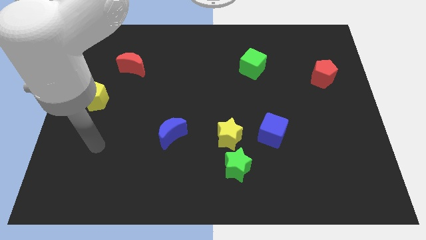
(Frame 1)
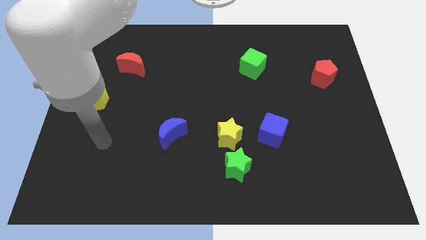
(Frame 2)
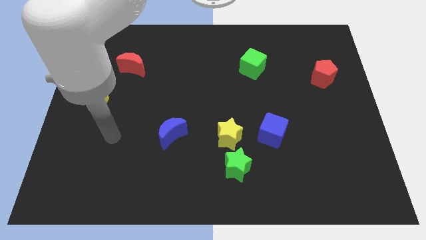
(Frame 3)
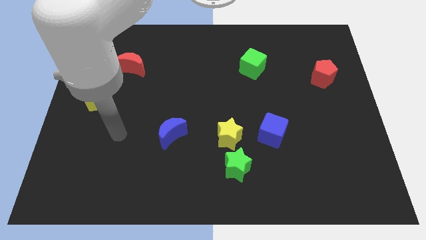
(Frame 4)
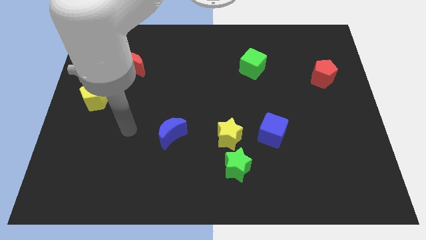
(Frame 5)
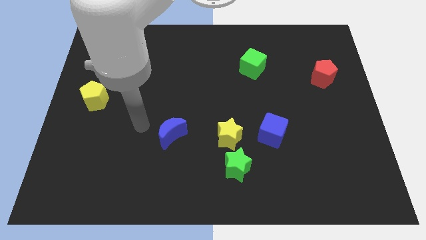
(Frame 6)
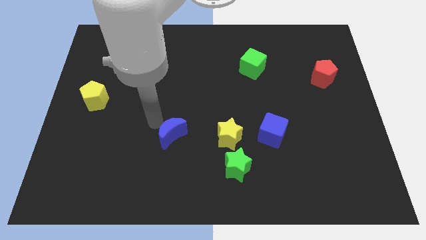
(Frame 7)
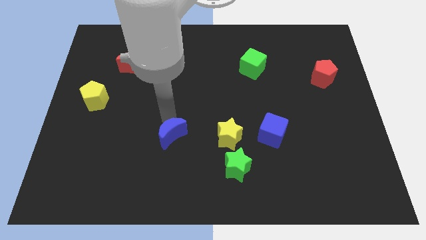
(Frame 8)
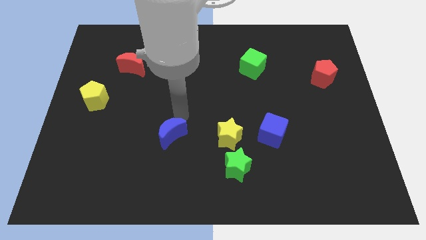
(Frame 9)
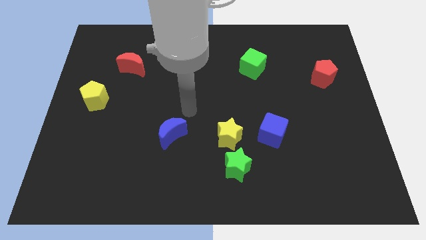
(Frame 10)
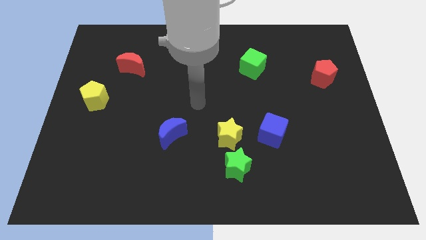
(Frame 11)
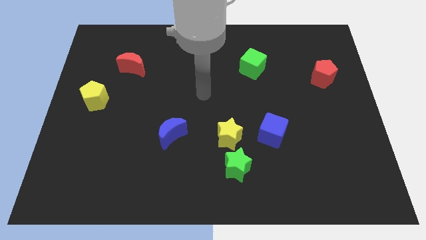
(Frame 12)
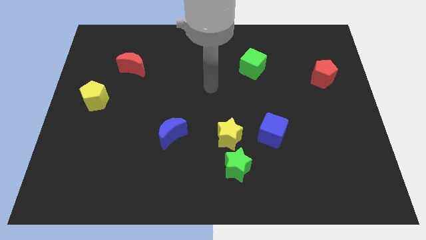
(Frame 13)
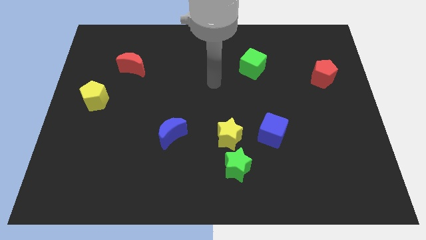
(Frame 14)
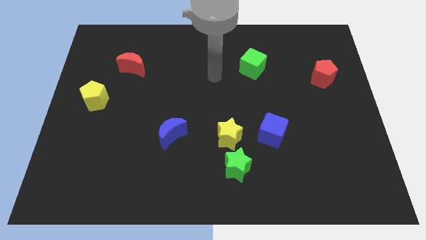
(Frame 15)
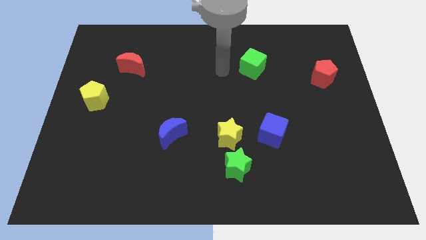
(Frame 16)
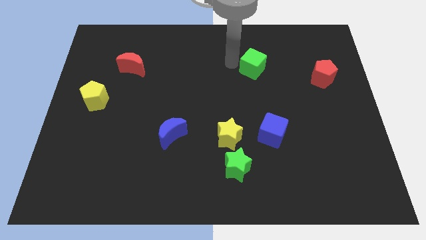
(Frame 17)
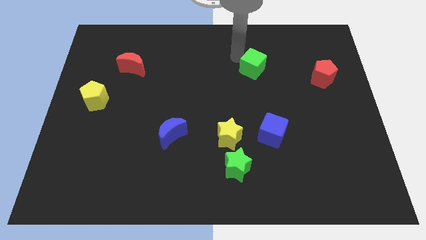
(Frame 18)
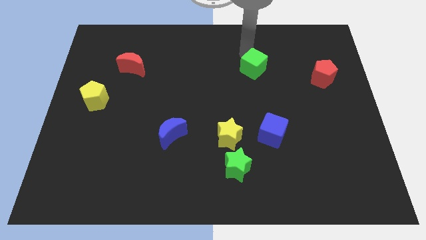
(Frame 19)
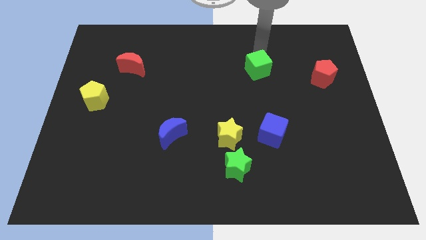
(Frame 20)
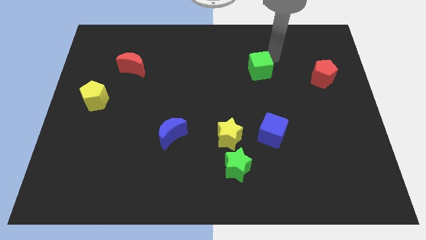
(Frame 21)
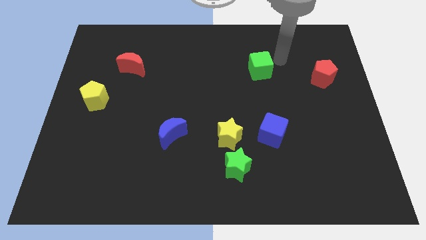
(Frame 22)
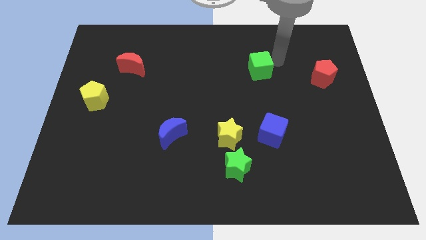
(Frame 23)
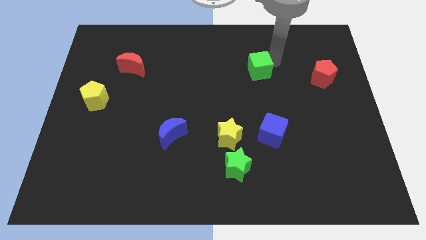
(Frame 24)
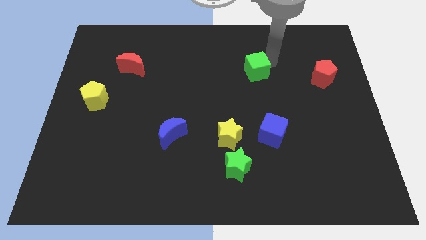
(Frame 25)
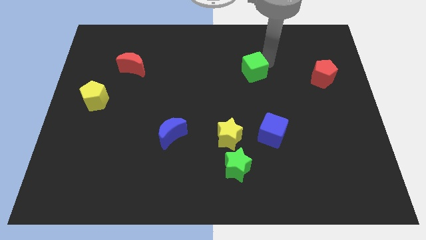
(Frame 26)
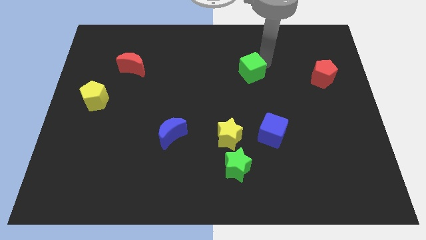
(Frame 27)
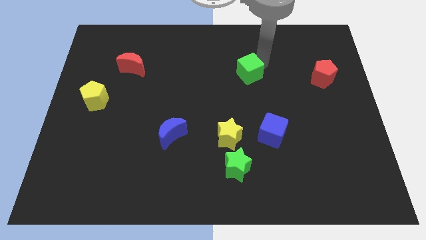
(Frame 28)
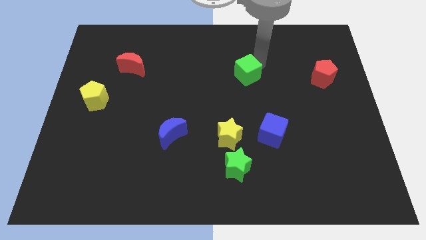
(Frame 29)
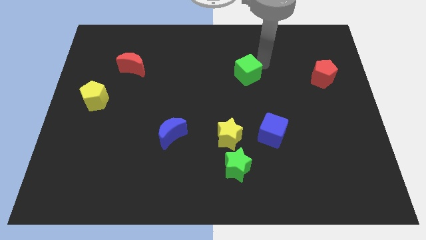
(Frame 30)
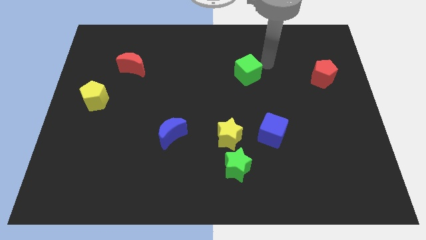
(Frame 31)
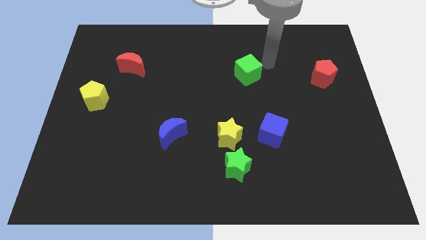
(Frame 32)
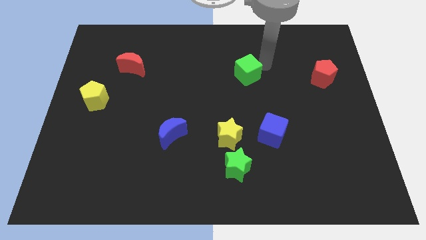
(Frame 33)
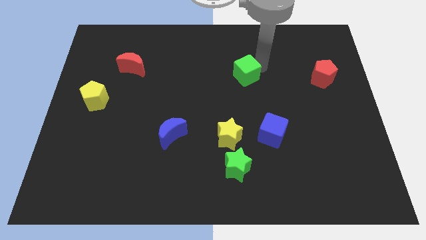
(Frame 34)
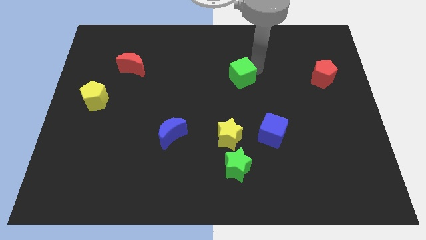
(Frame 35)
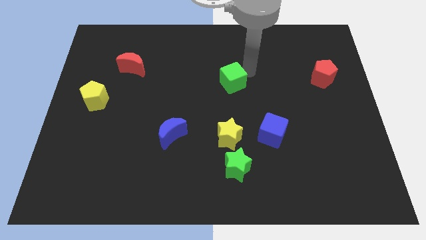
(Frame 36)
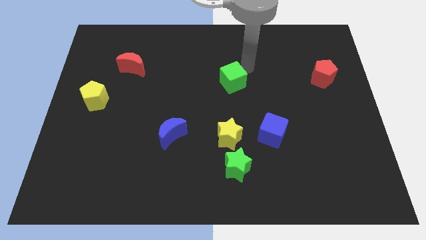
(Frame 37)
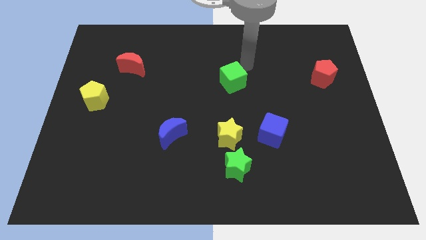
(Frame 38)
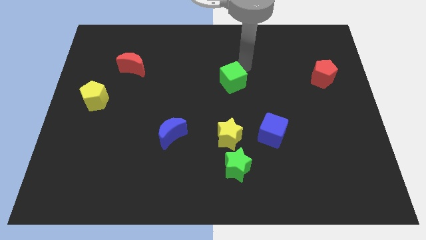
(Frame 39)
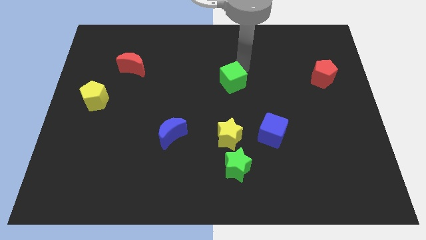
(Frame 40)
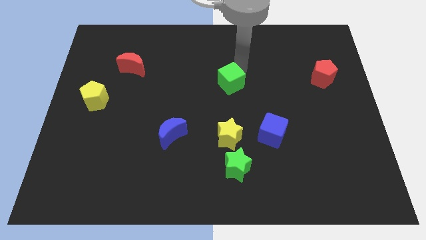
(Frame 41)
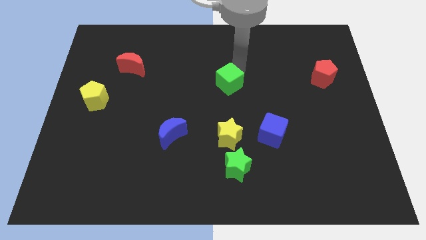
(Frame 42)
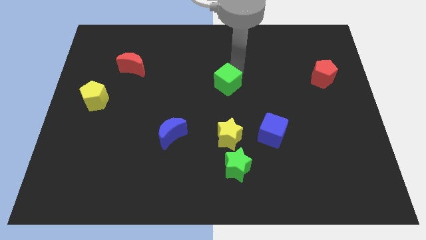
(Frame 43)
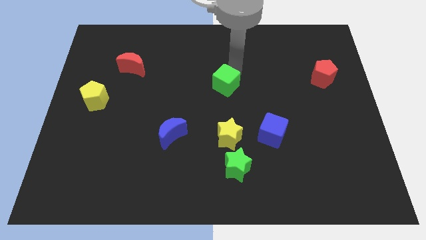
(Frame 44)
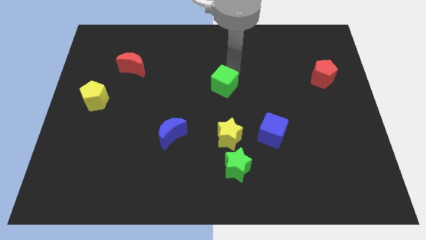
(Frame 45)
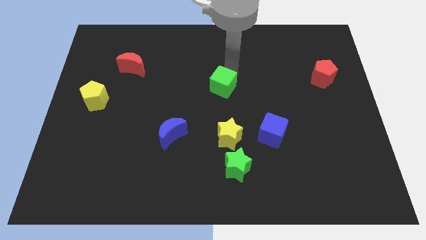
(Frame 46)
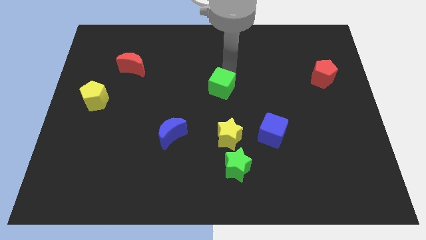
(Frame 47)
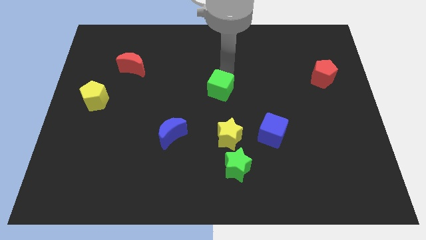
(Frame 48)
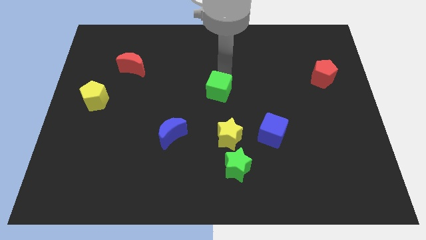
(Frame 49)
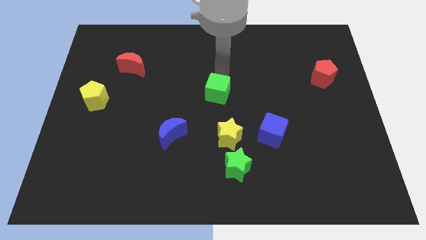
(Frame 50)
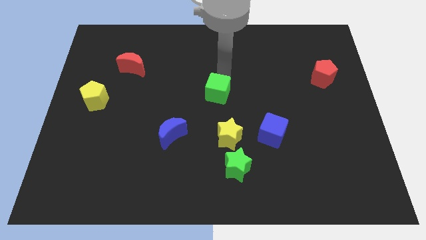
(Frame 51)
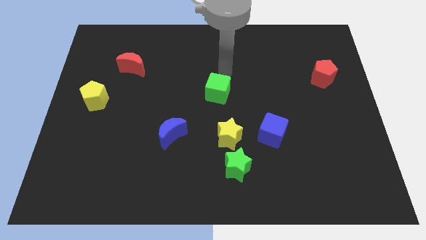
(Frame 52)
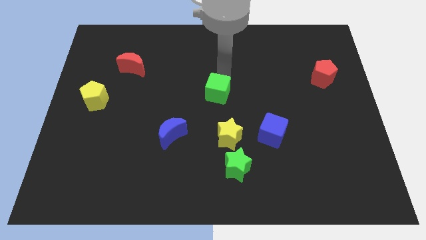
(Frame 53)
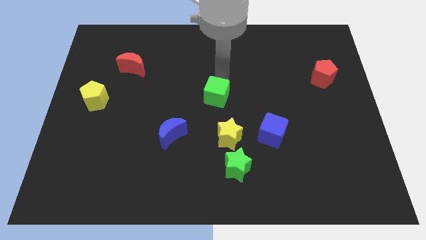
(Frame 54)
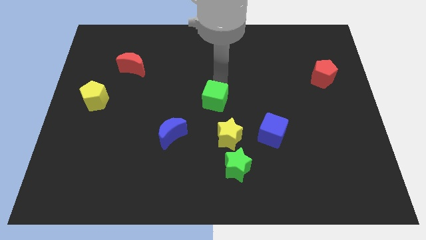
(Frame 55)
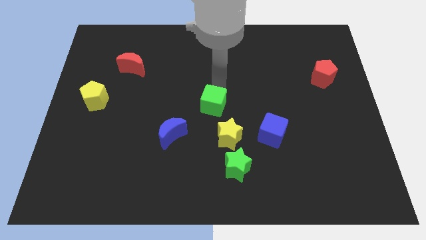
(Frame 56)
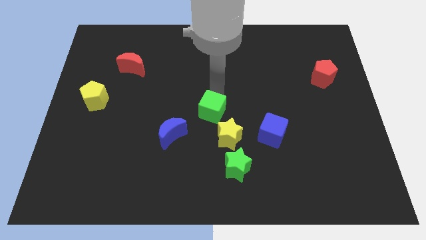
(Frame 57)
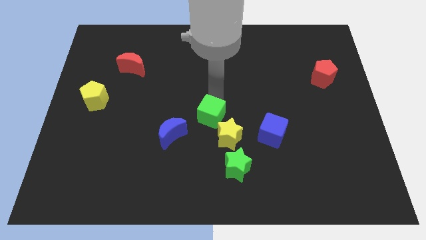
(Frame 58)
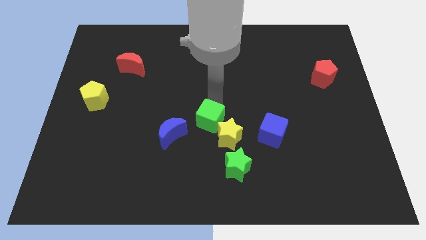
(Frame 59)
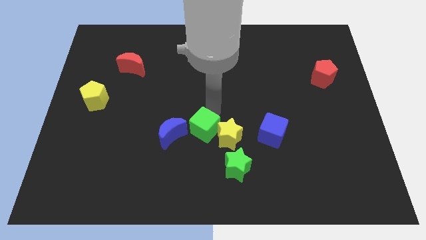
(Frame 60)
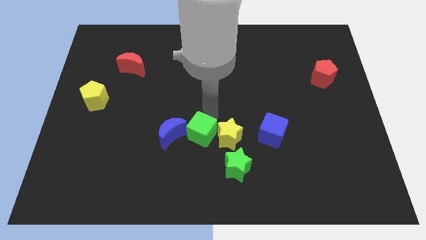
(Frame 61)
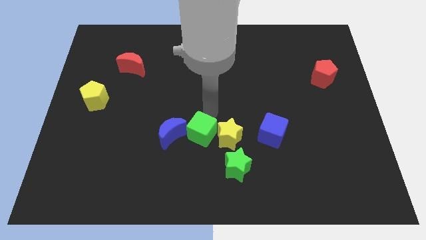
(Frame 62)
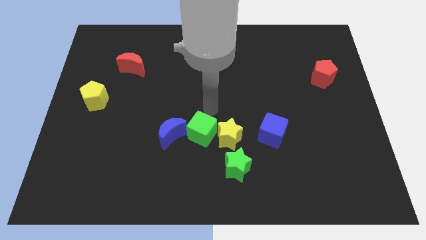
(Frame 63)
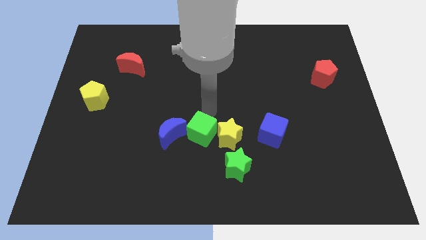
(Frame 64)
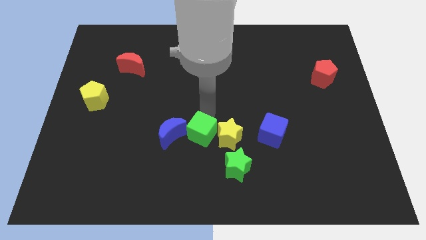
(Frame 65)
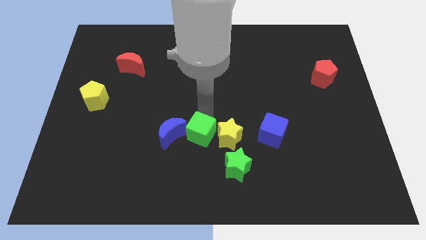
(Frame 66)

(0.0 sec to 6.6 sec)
slide the green cube to the bottom right side of the blue moon

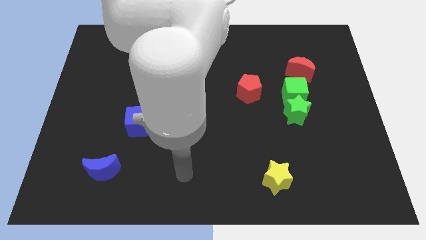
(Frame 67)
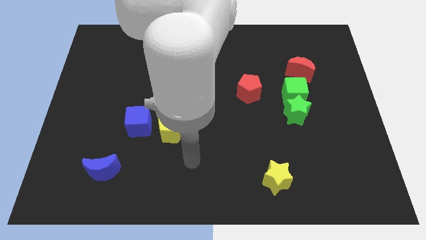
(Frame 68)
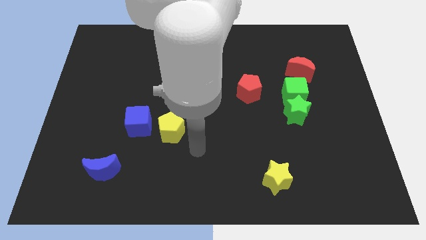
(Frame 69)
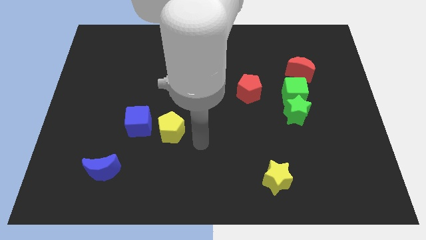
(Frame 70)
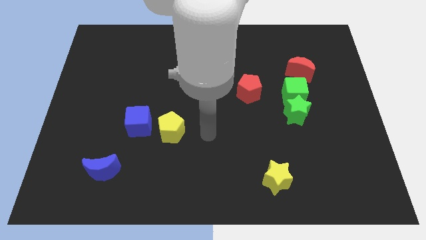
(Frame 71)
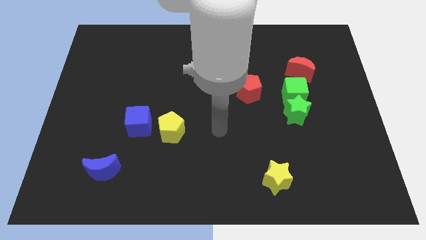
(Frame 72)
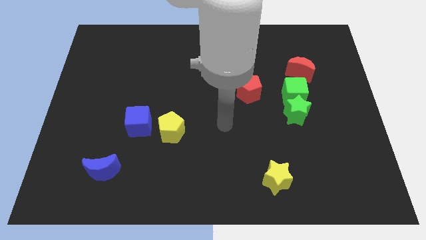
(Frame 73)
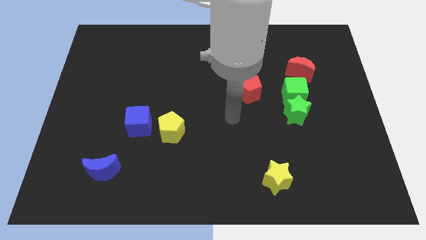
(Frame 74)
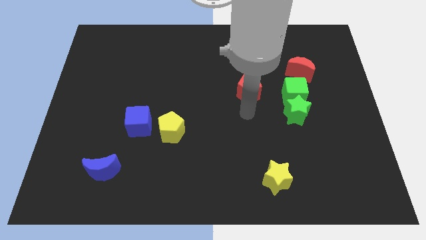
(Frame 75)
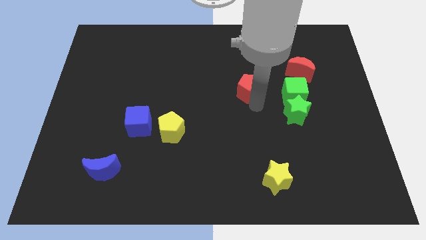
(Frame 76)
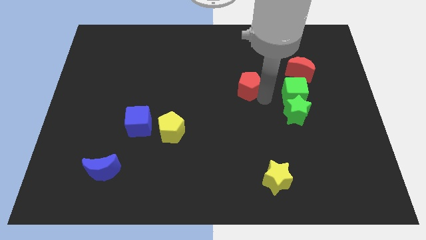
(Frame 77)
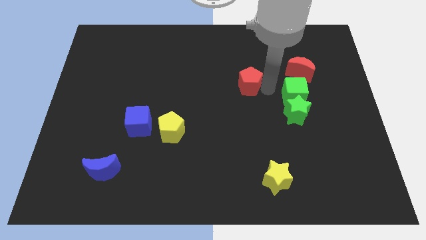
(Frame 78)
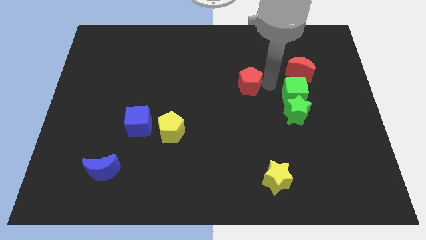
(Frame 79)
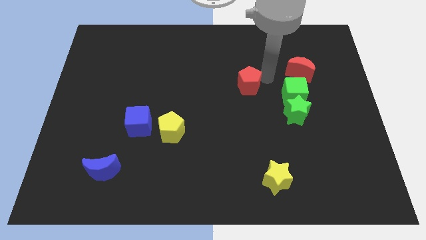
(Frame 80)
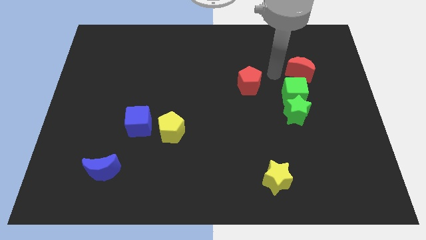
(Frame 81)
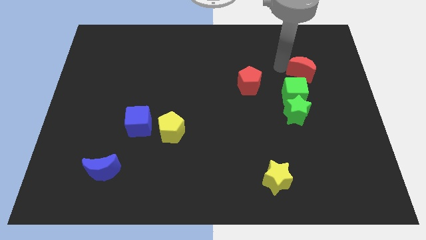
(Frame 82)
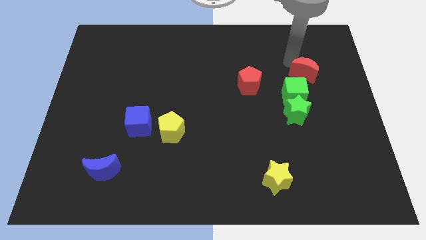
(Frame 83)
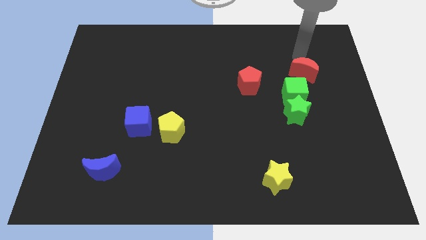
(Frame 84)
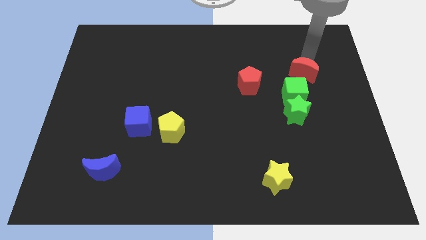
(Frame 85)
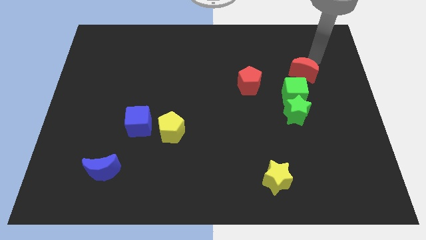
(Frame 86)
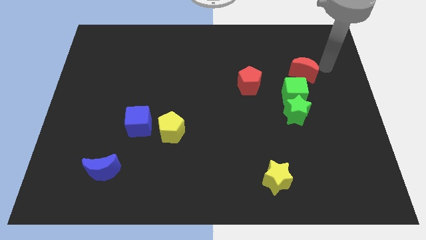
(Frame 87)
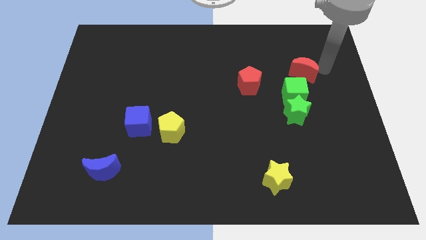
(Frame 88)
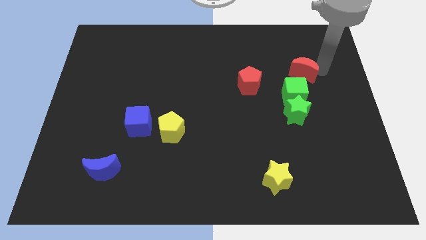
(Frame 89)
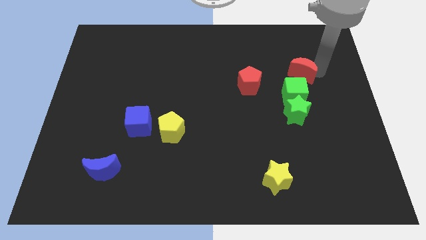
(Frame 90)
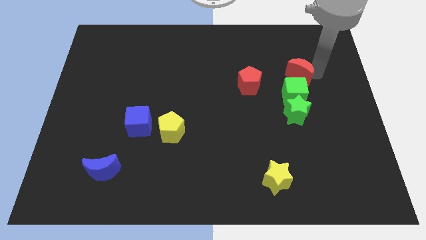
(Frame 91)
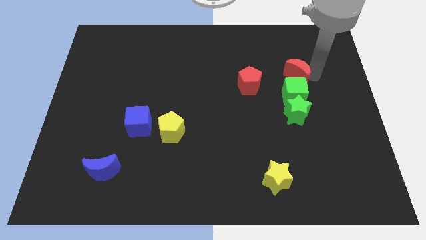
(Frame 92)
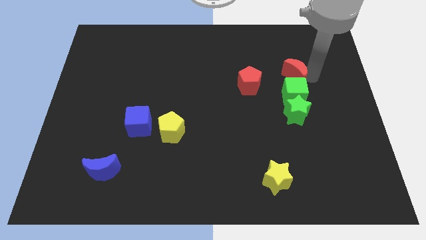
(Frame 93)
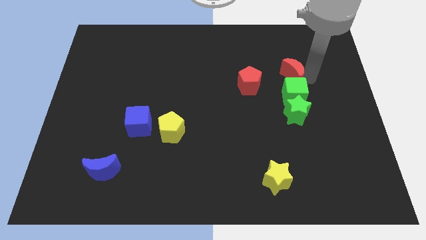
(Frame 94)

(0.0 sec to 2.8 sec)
push the red moon to the top left of the green cube
